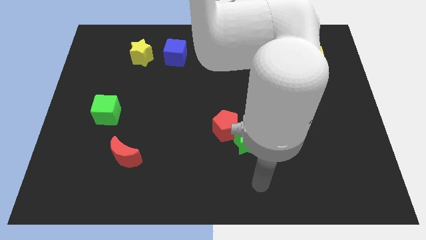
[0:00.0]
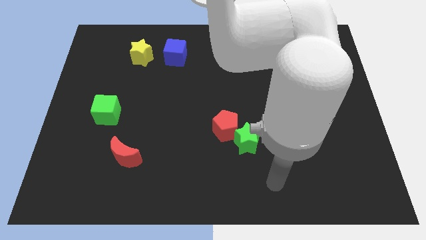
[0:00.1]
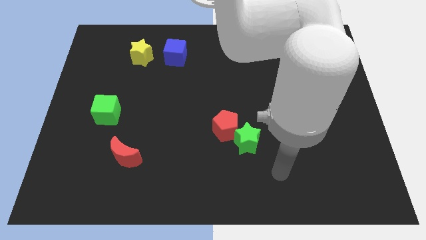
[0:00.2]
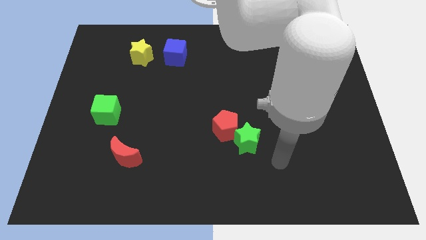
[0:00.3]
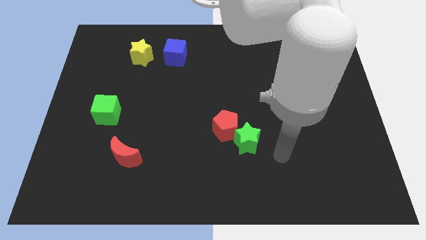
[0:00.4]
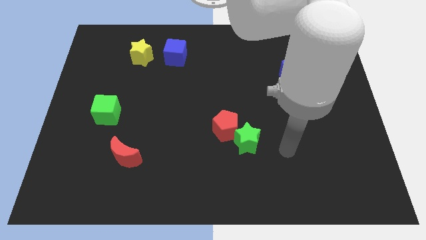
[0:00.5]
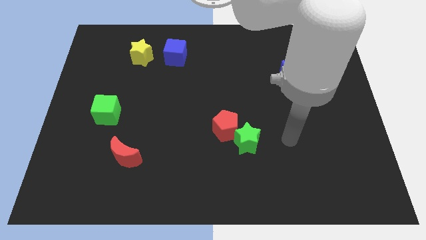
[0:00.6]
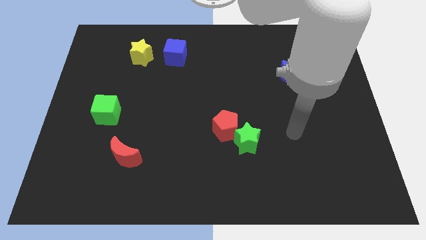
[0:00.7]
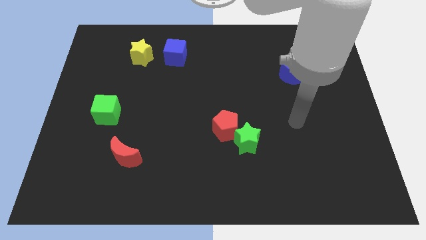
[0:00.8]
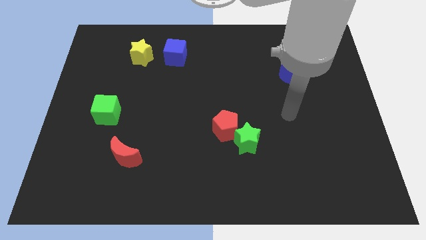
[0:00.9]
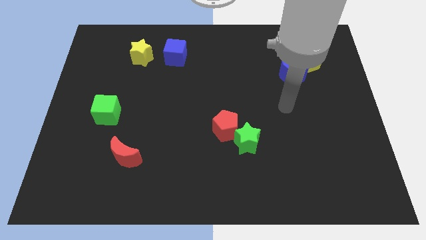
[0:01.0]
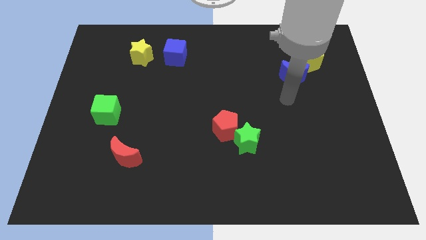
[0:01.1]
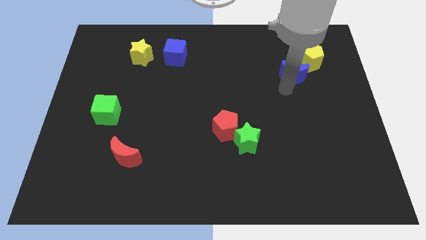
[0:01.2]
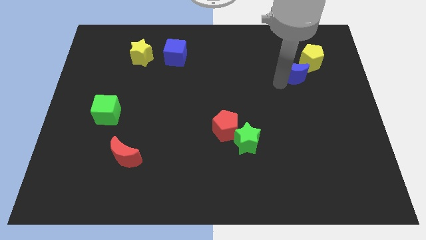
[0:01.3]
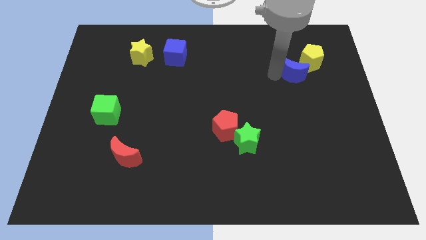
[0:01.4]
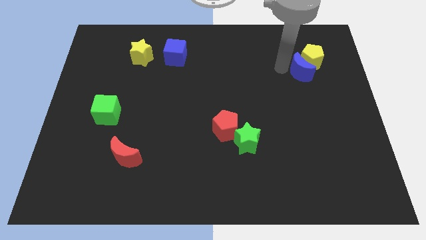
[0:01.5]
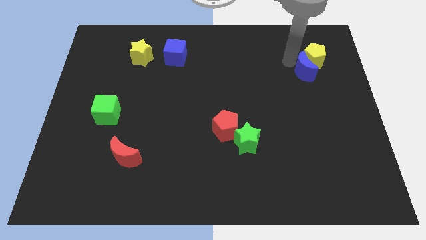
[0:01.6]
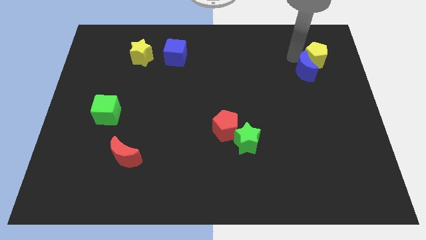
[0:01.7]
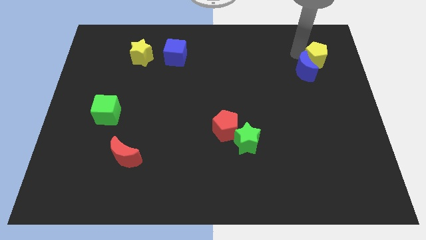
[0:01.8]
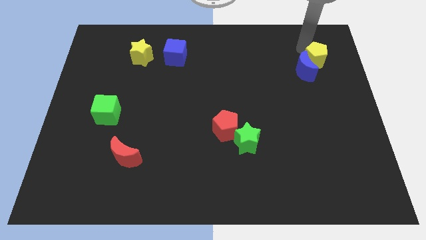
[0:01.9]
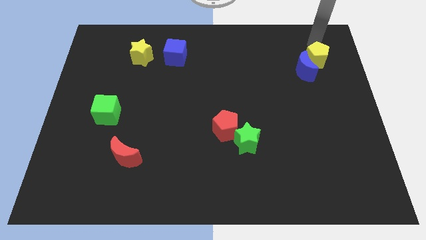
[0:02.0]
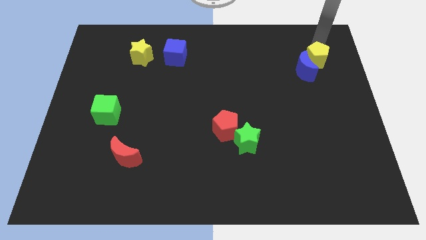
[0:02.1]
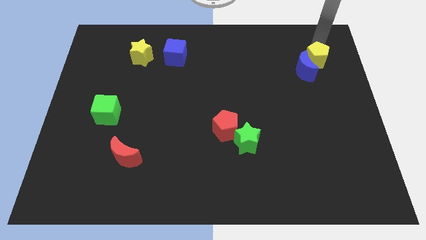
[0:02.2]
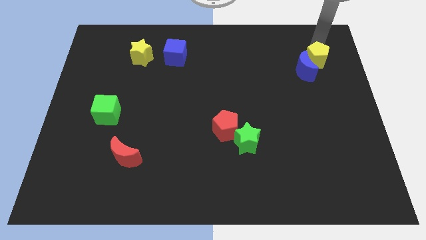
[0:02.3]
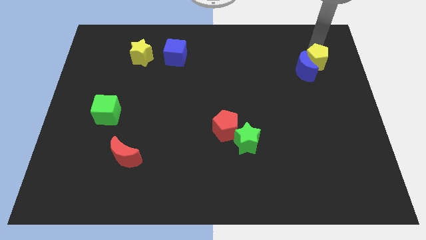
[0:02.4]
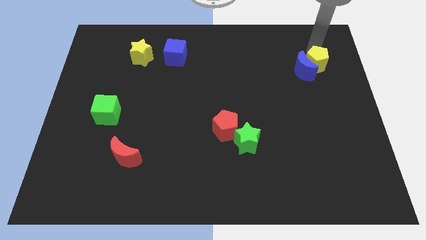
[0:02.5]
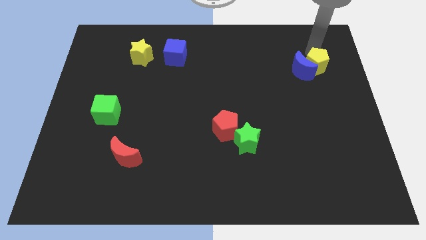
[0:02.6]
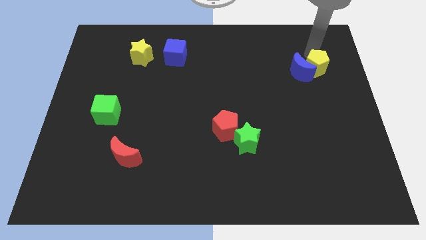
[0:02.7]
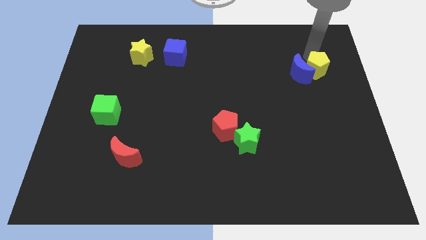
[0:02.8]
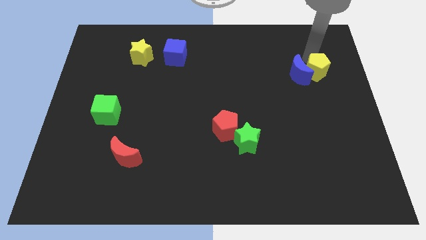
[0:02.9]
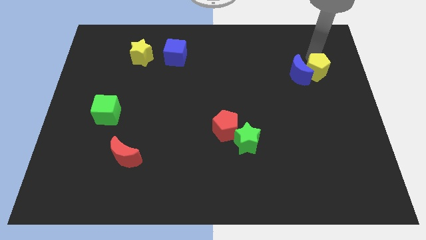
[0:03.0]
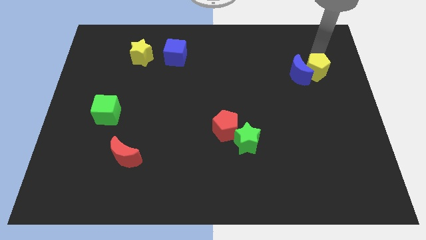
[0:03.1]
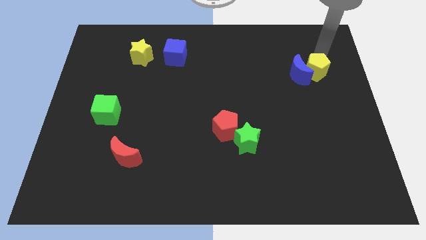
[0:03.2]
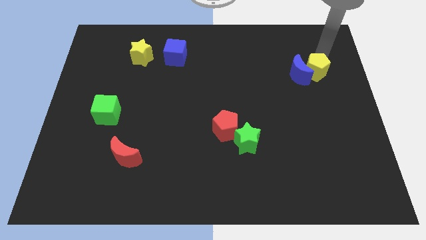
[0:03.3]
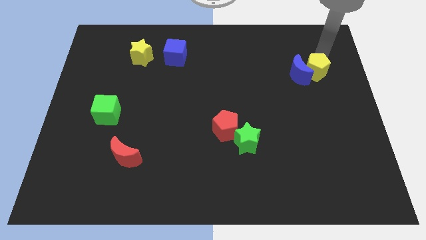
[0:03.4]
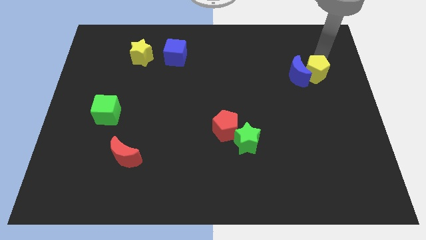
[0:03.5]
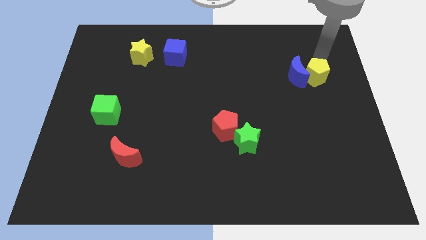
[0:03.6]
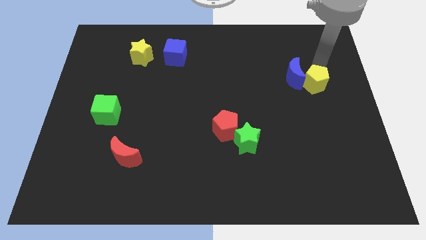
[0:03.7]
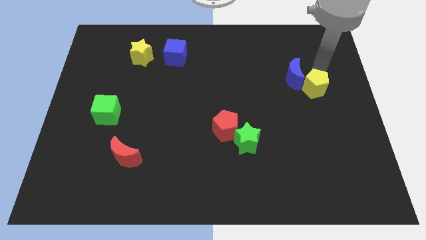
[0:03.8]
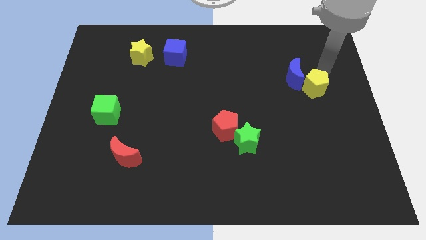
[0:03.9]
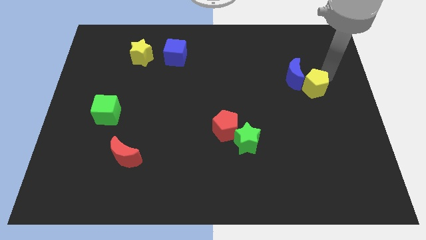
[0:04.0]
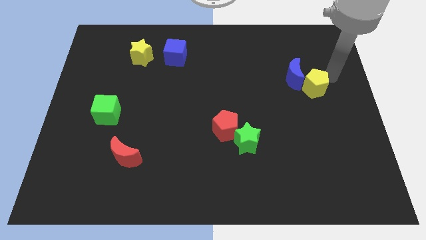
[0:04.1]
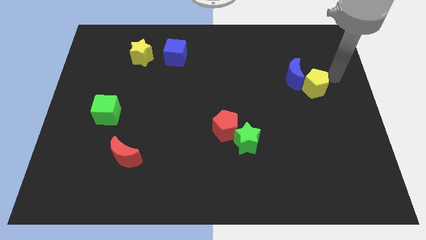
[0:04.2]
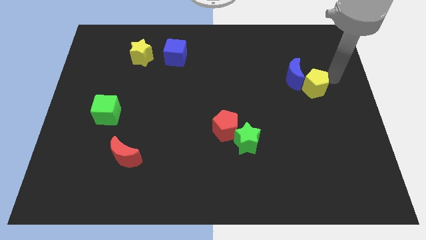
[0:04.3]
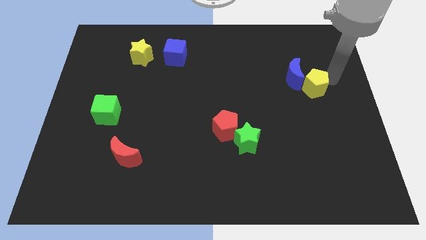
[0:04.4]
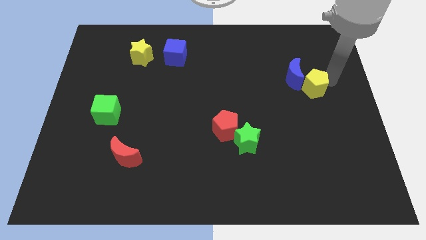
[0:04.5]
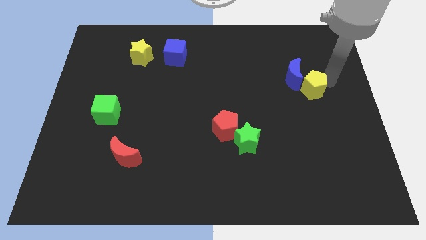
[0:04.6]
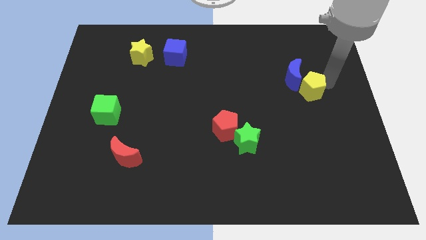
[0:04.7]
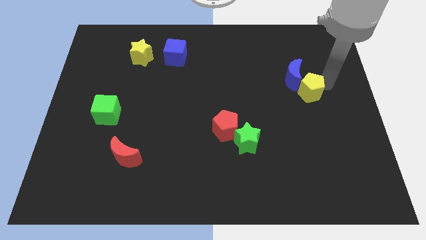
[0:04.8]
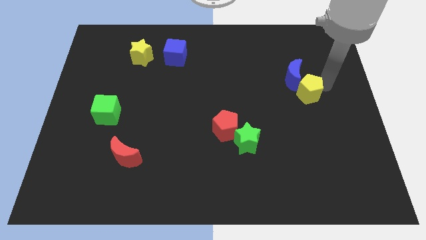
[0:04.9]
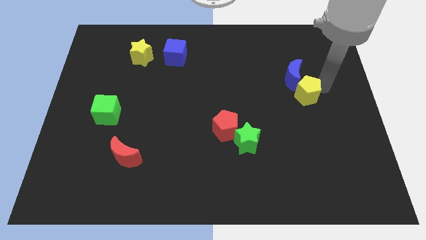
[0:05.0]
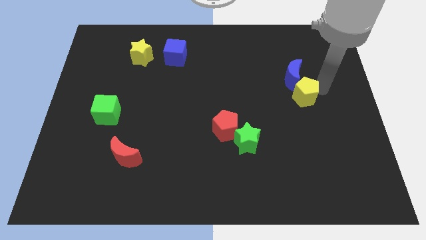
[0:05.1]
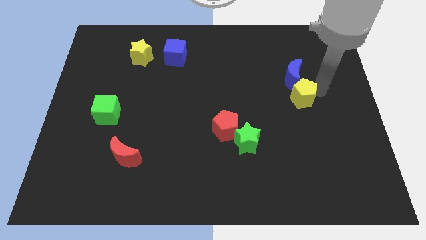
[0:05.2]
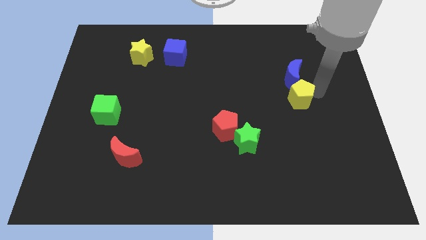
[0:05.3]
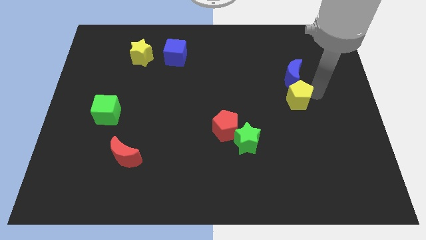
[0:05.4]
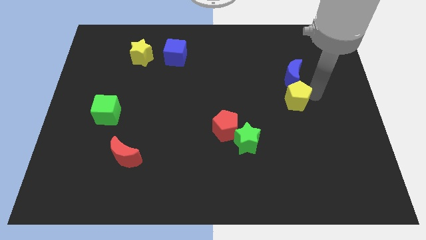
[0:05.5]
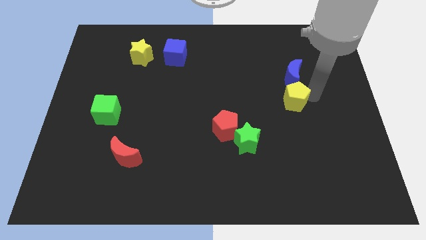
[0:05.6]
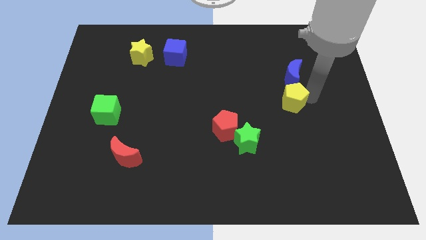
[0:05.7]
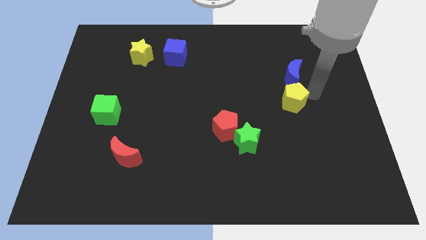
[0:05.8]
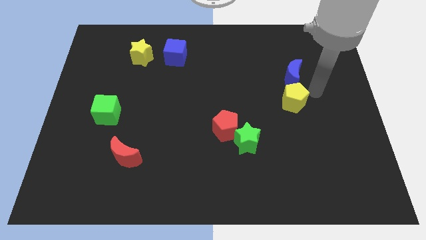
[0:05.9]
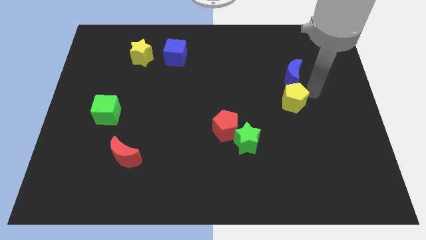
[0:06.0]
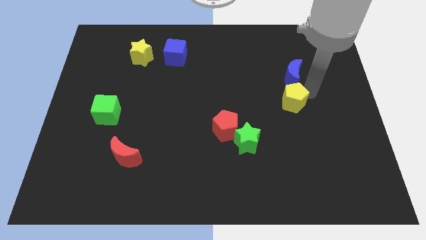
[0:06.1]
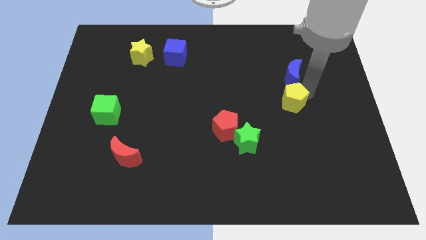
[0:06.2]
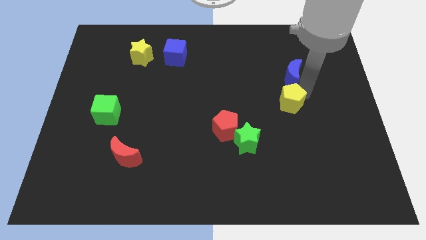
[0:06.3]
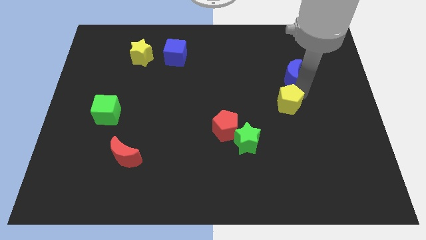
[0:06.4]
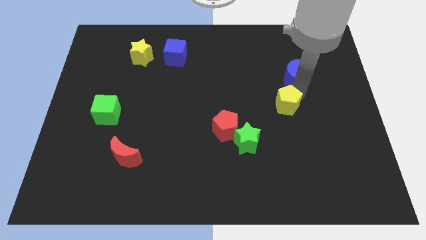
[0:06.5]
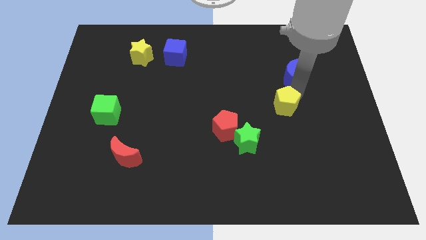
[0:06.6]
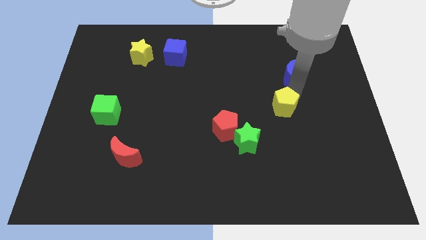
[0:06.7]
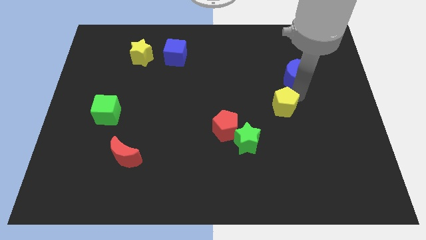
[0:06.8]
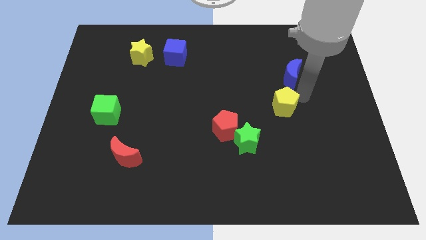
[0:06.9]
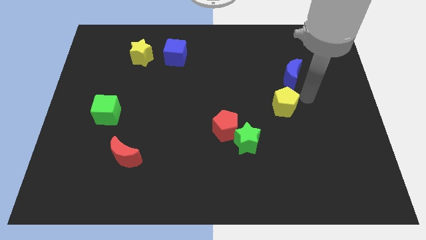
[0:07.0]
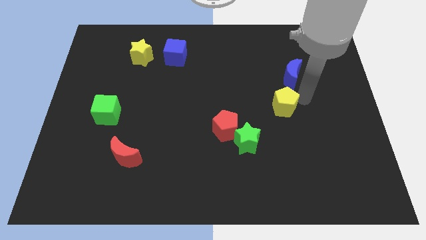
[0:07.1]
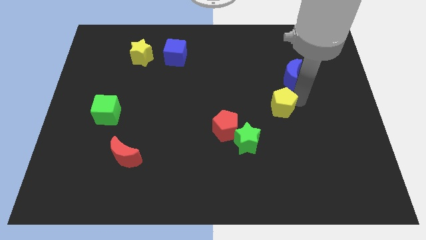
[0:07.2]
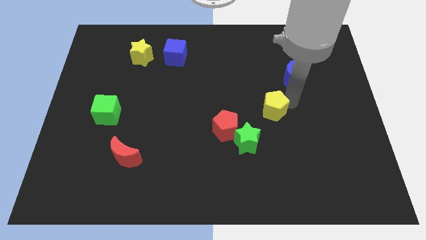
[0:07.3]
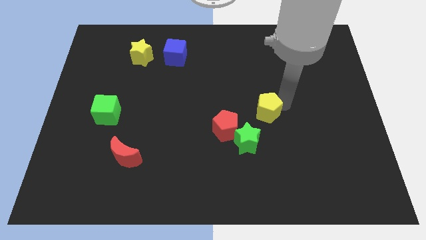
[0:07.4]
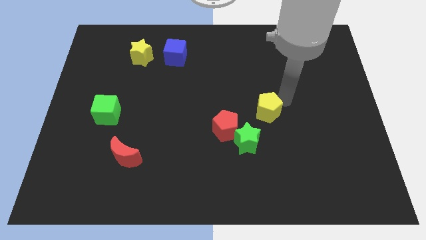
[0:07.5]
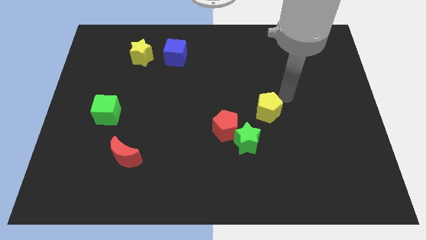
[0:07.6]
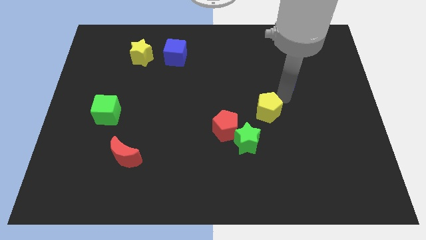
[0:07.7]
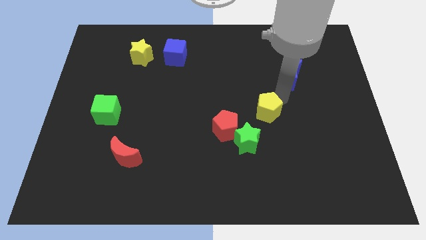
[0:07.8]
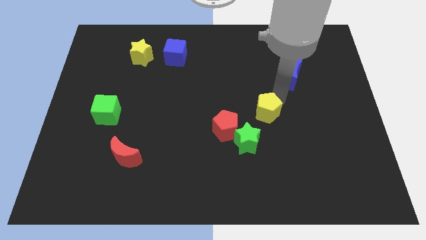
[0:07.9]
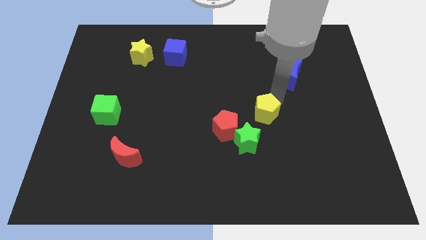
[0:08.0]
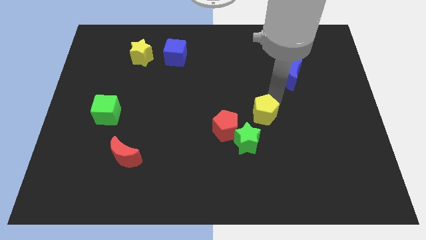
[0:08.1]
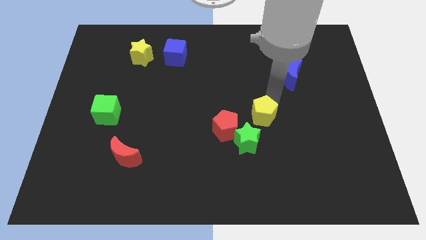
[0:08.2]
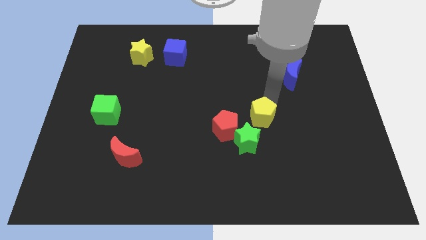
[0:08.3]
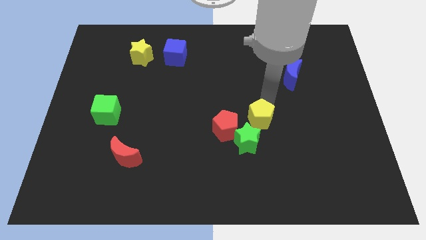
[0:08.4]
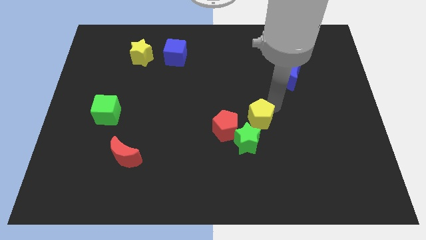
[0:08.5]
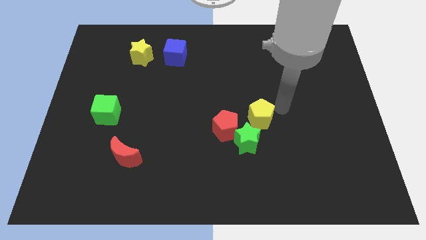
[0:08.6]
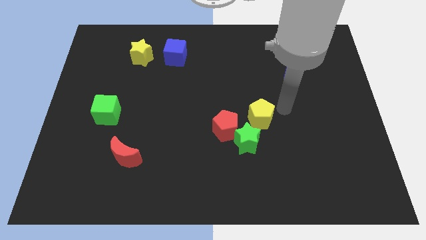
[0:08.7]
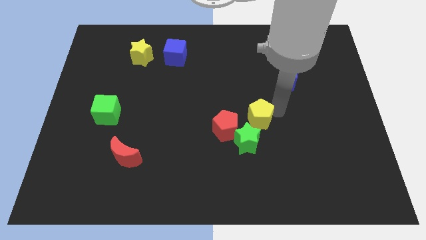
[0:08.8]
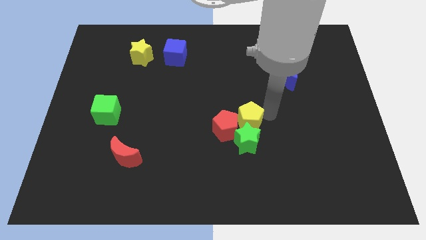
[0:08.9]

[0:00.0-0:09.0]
put the yellow pentagon to the red pentagon
